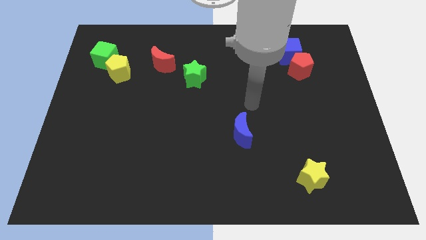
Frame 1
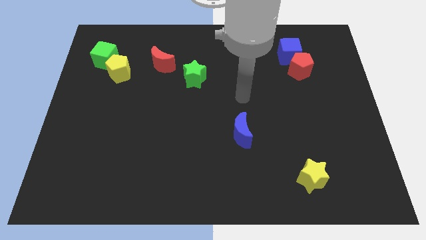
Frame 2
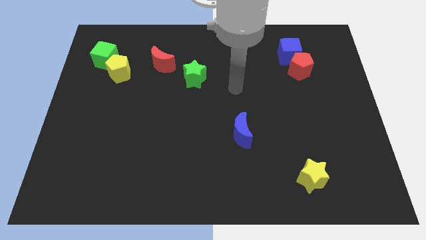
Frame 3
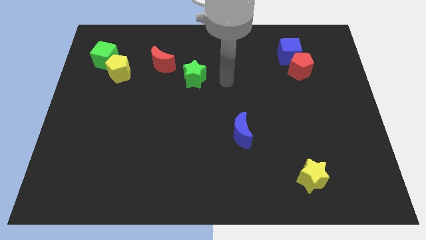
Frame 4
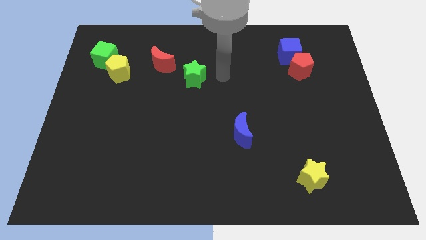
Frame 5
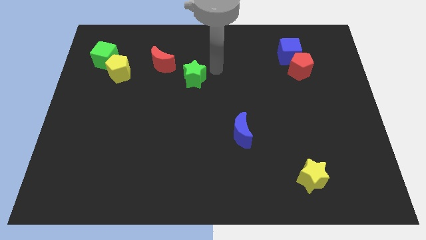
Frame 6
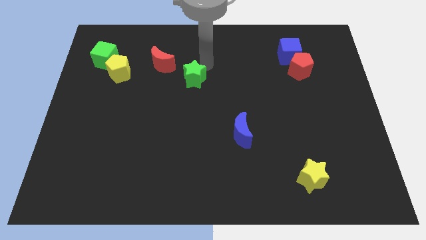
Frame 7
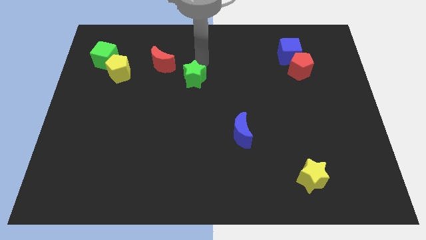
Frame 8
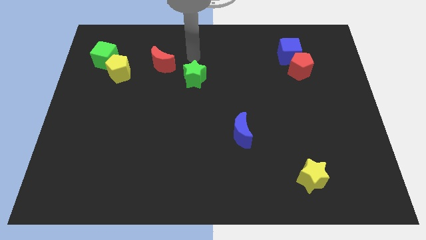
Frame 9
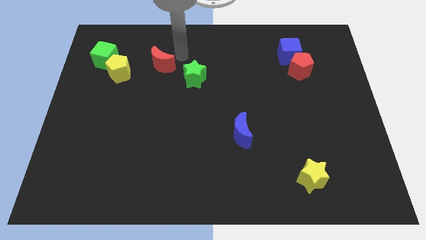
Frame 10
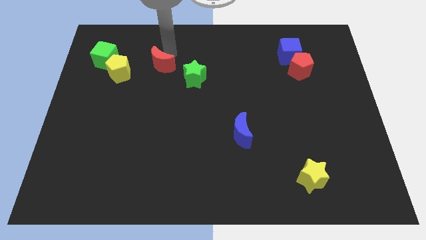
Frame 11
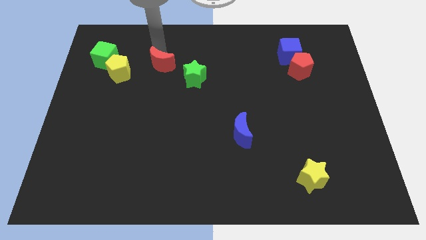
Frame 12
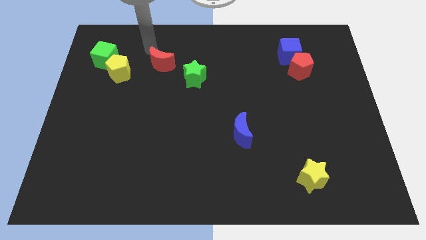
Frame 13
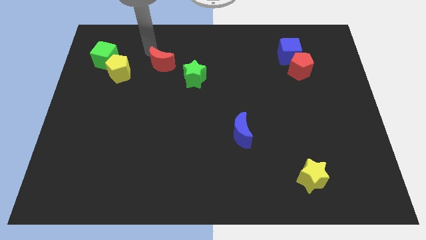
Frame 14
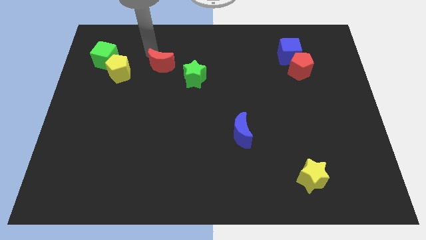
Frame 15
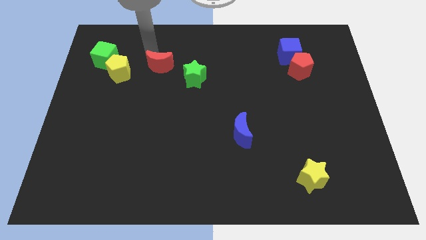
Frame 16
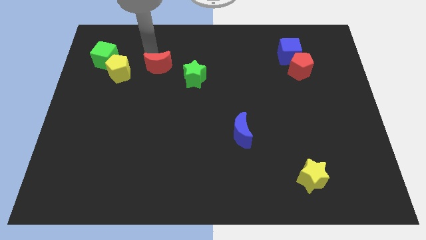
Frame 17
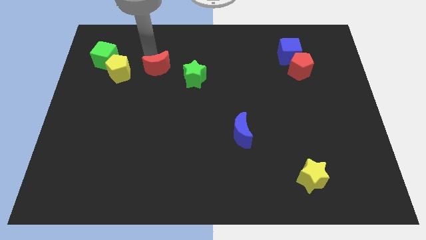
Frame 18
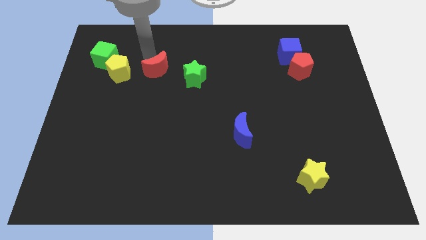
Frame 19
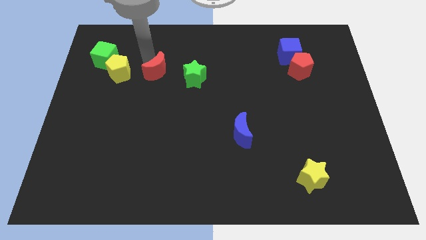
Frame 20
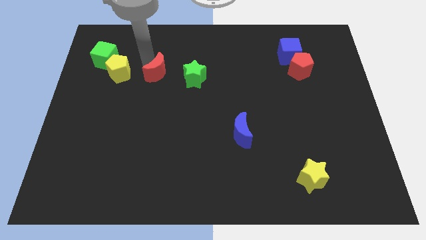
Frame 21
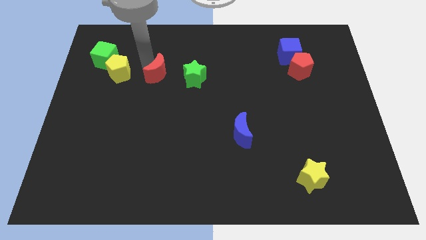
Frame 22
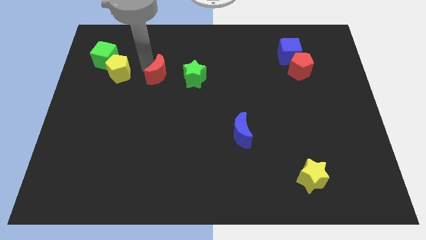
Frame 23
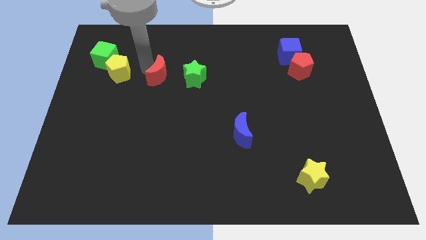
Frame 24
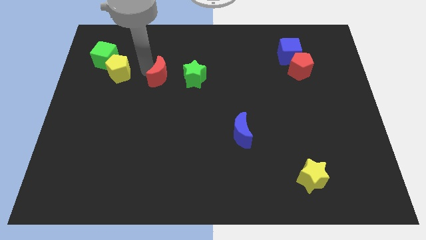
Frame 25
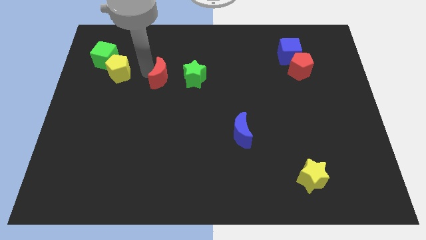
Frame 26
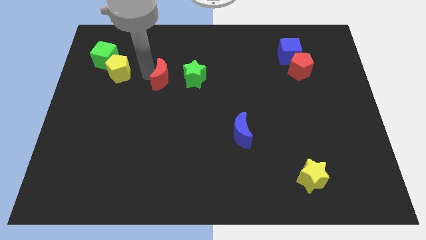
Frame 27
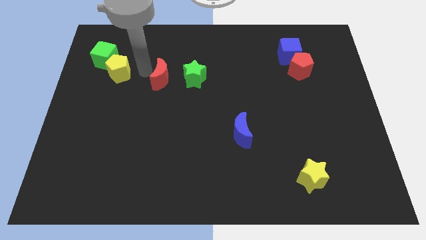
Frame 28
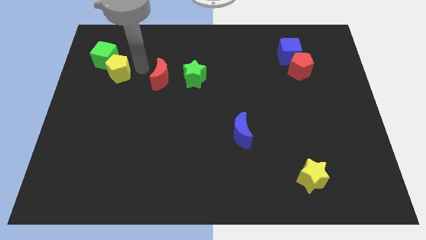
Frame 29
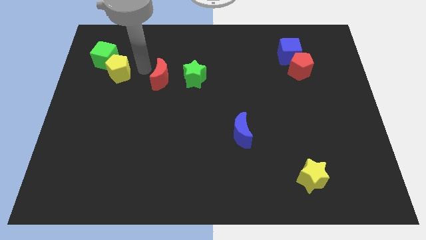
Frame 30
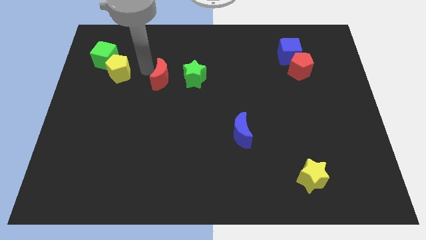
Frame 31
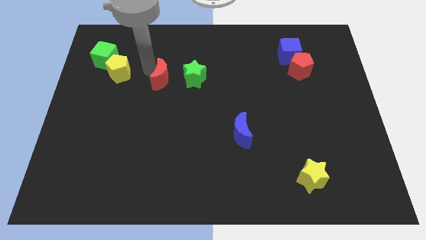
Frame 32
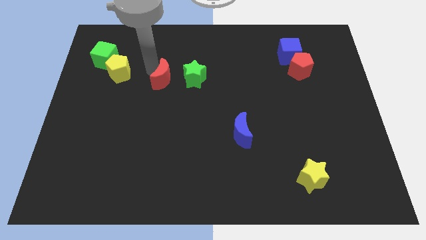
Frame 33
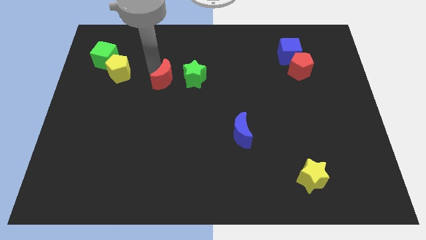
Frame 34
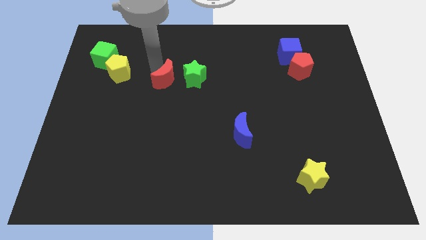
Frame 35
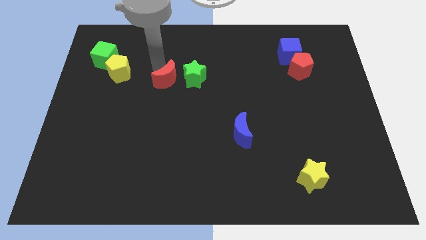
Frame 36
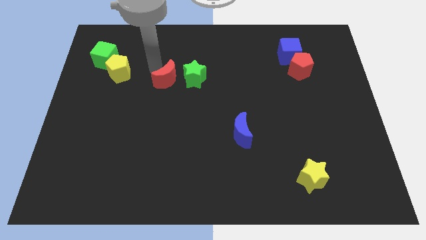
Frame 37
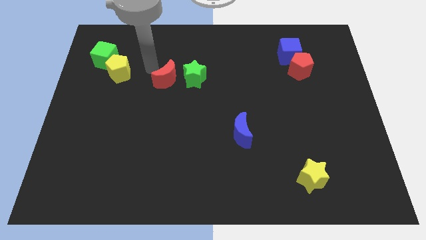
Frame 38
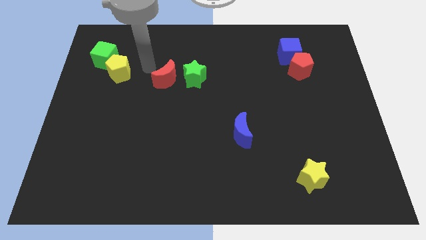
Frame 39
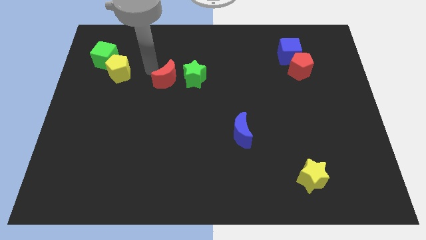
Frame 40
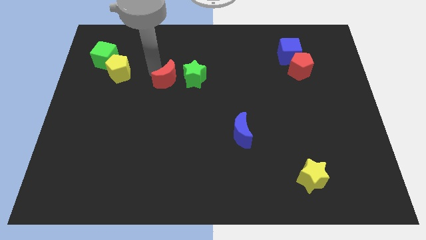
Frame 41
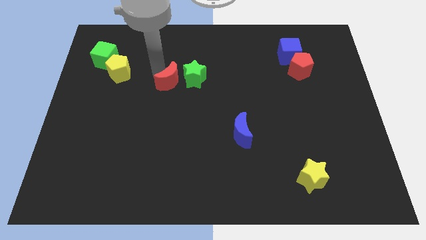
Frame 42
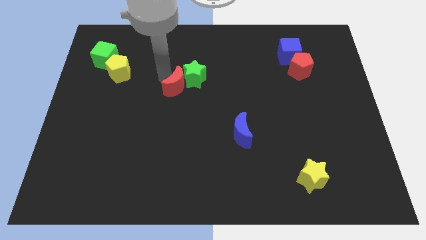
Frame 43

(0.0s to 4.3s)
slightly slide the red moon down and to the right

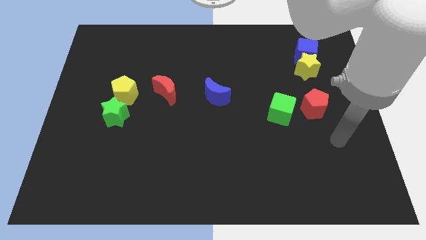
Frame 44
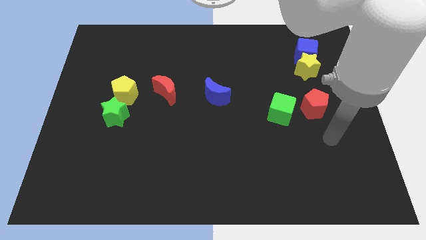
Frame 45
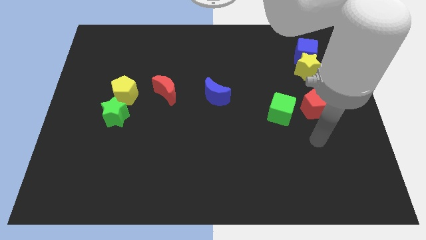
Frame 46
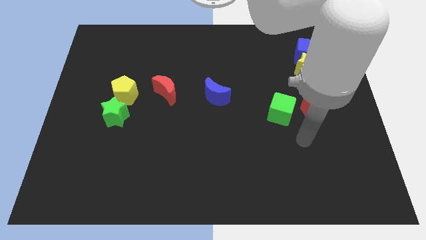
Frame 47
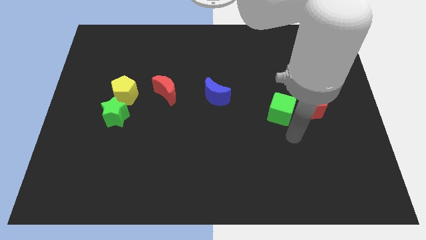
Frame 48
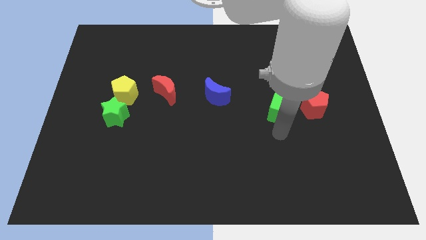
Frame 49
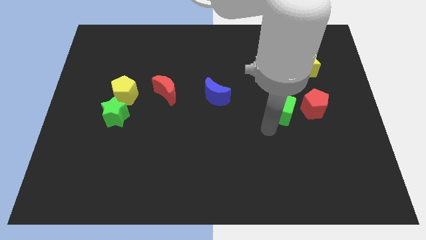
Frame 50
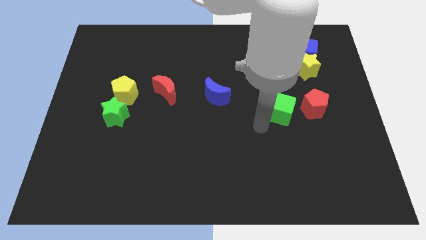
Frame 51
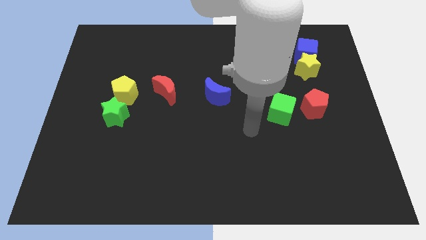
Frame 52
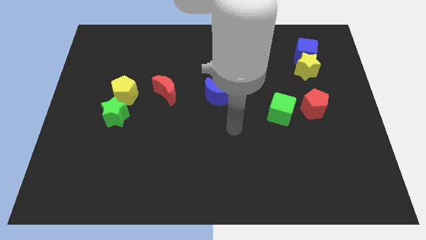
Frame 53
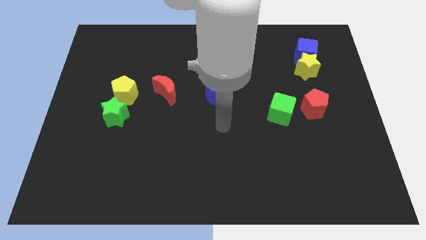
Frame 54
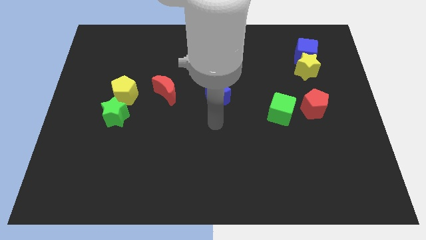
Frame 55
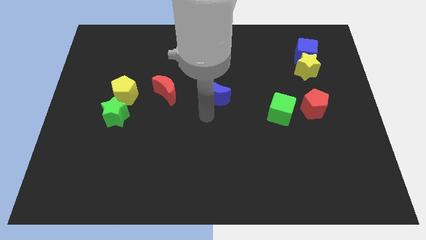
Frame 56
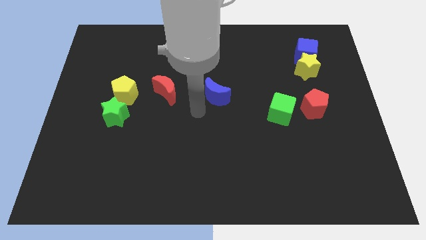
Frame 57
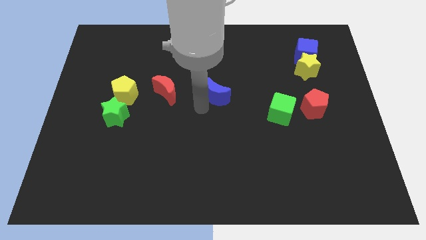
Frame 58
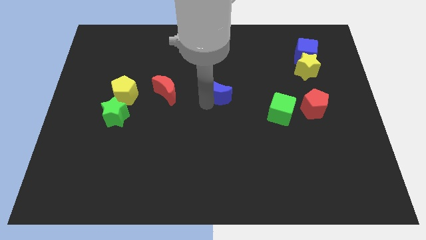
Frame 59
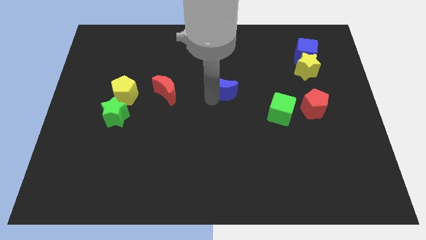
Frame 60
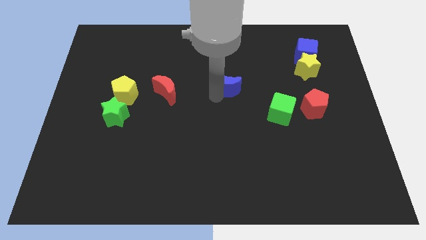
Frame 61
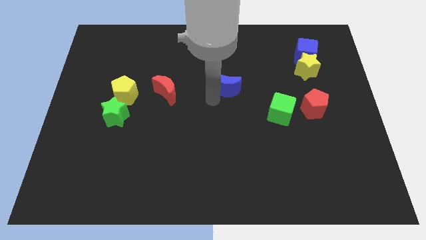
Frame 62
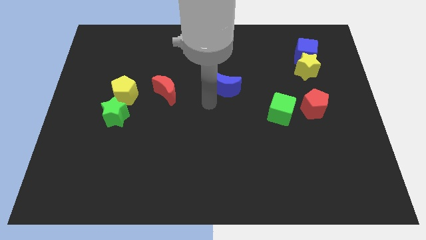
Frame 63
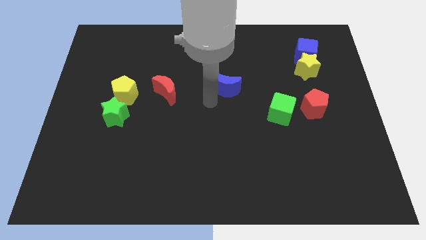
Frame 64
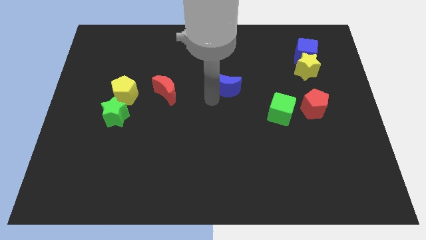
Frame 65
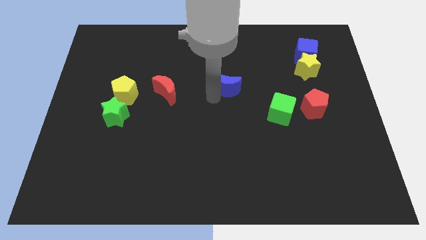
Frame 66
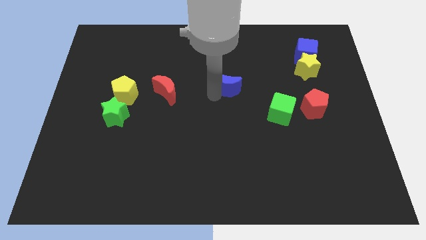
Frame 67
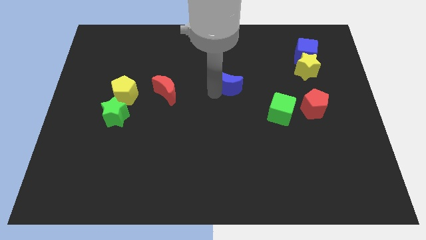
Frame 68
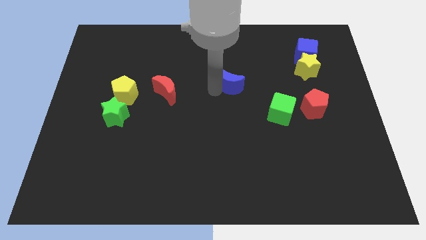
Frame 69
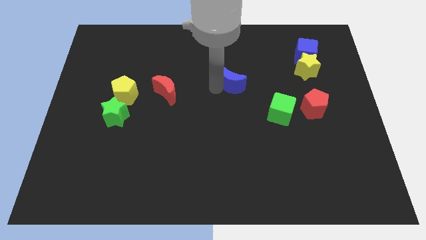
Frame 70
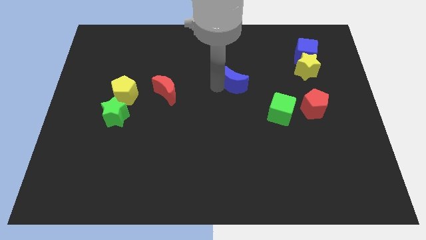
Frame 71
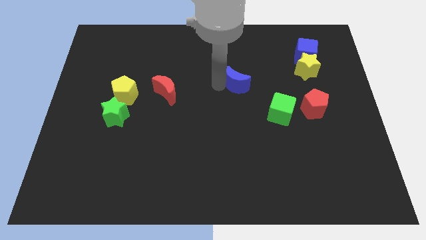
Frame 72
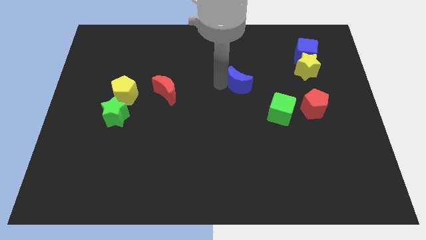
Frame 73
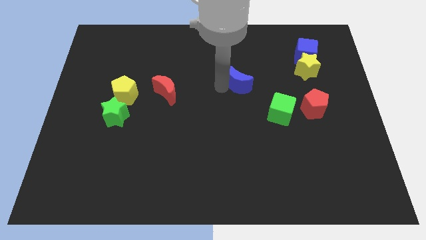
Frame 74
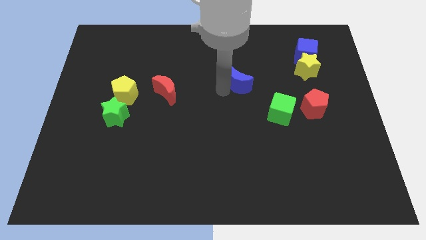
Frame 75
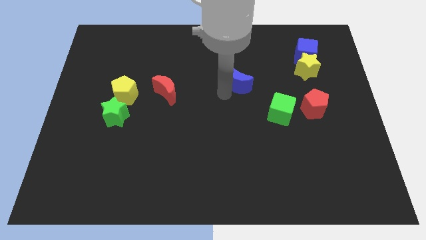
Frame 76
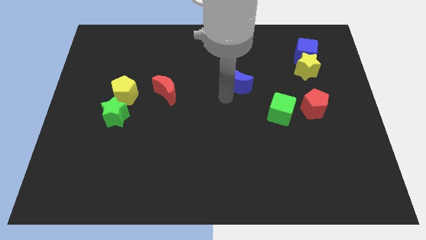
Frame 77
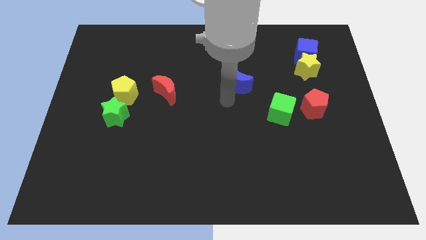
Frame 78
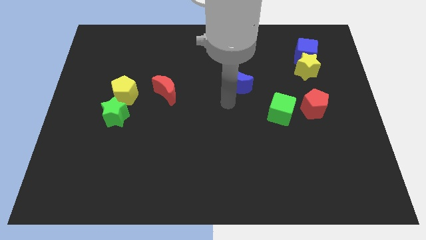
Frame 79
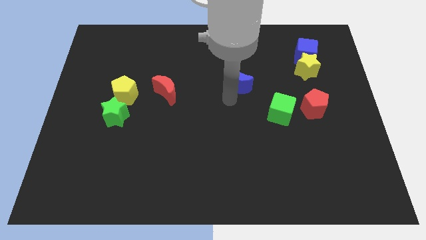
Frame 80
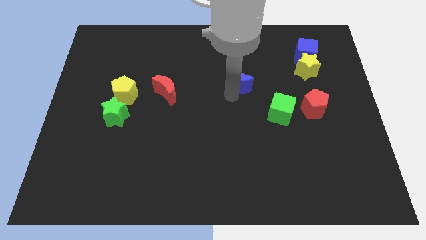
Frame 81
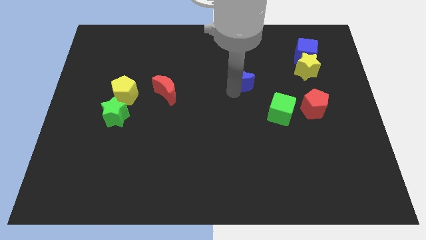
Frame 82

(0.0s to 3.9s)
slide the blue moon up and then to the right a bit
